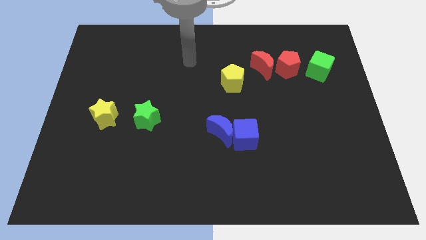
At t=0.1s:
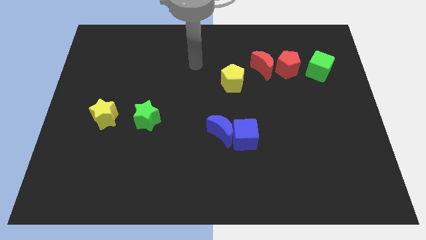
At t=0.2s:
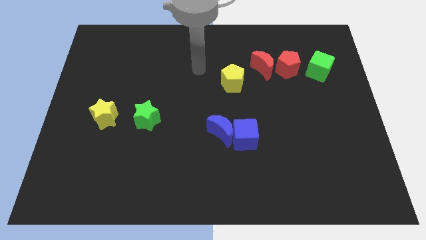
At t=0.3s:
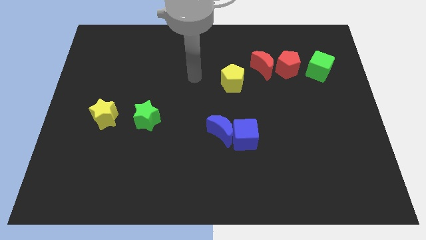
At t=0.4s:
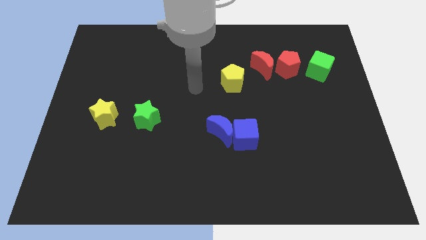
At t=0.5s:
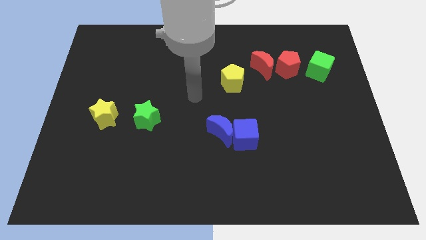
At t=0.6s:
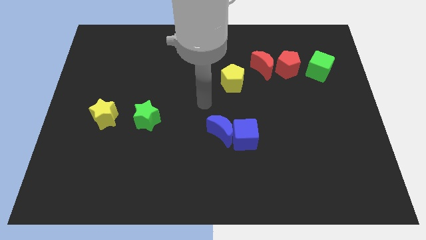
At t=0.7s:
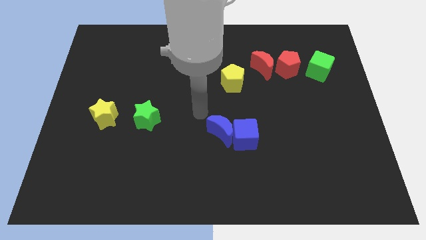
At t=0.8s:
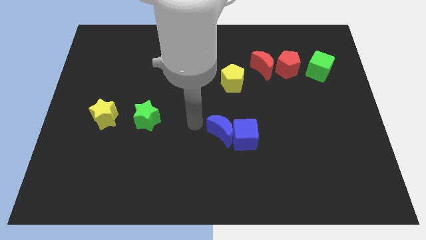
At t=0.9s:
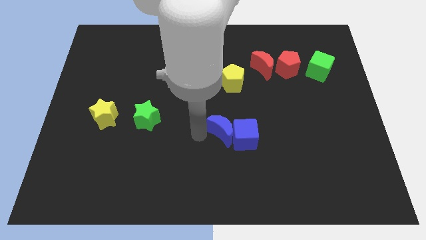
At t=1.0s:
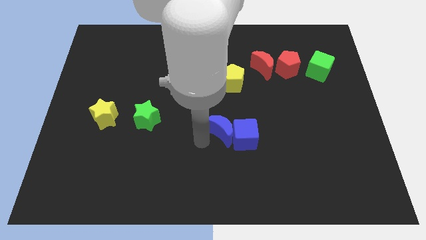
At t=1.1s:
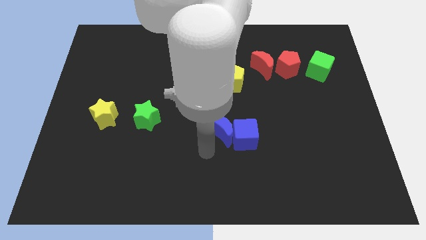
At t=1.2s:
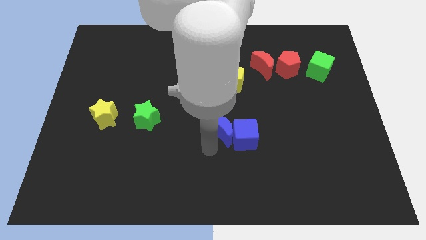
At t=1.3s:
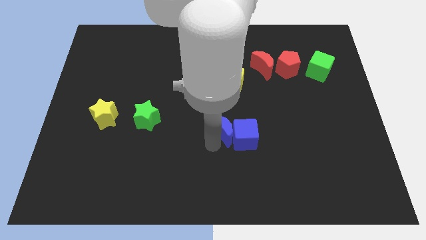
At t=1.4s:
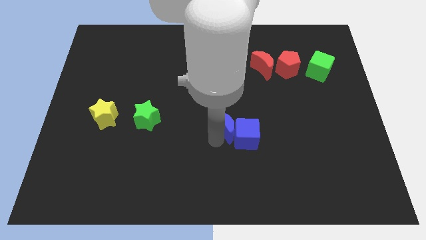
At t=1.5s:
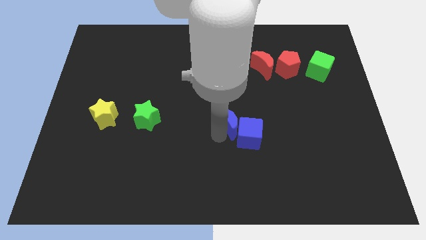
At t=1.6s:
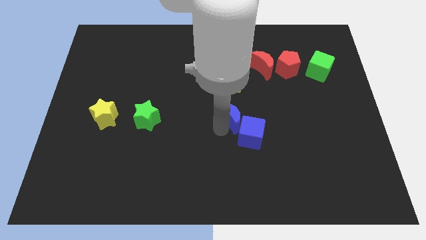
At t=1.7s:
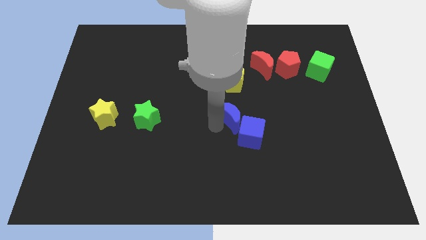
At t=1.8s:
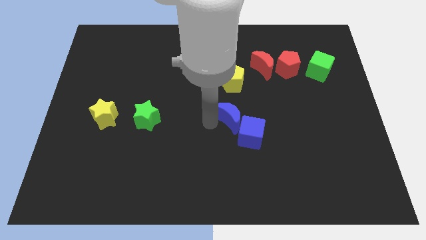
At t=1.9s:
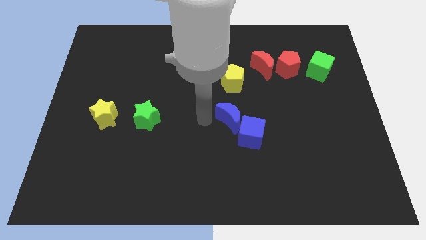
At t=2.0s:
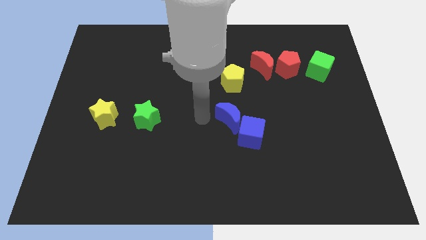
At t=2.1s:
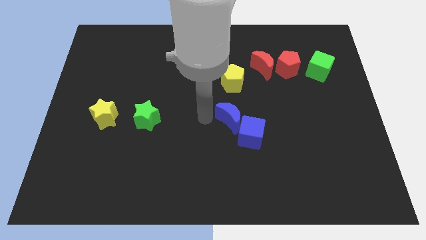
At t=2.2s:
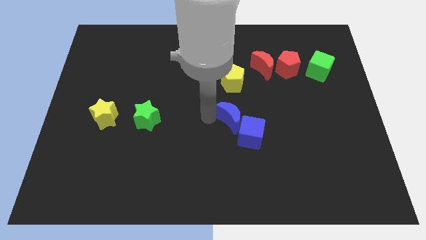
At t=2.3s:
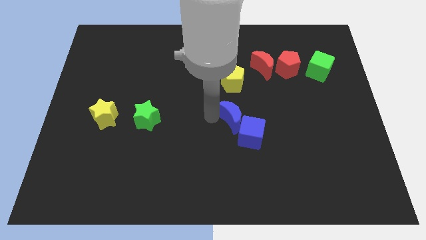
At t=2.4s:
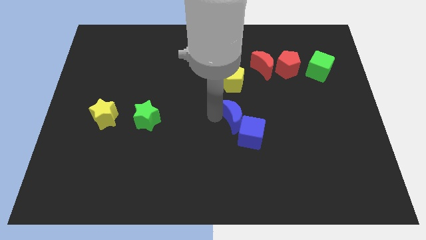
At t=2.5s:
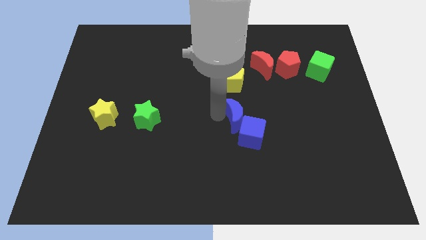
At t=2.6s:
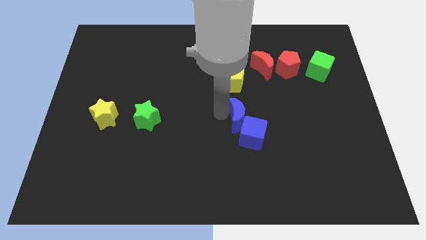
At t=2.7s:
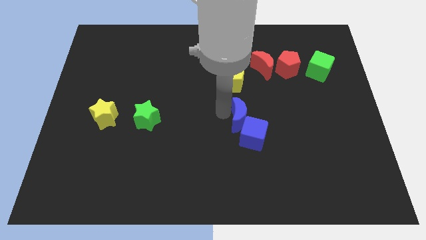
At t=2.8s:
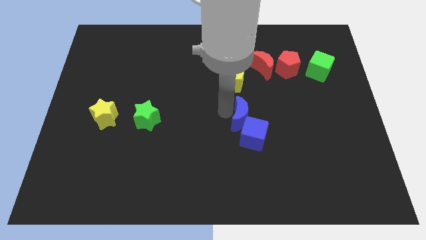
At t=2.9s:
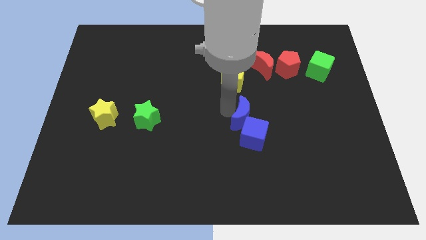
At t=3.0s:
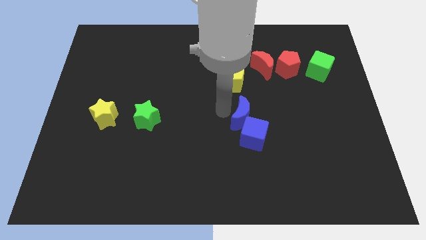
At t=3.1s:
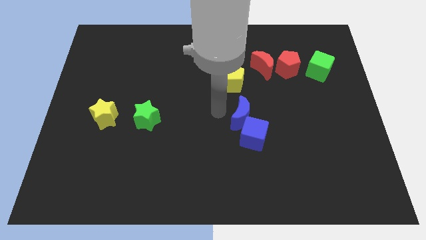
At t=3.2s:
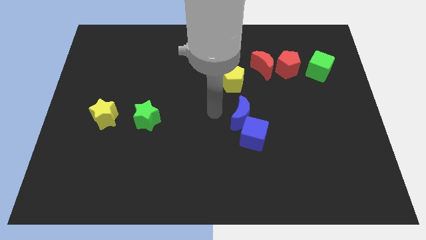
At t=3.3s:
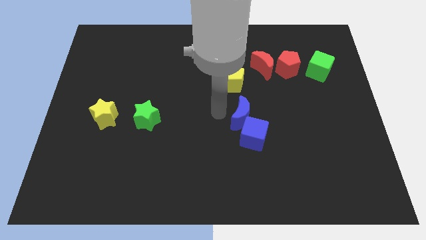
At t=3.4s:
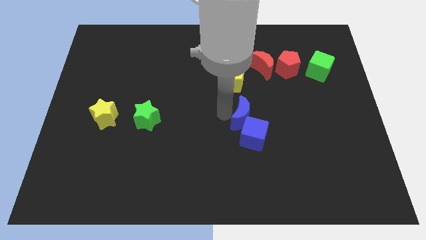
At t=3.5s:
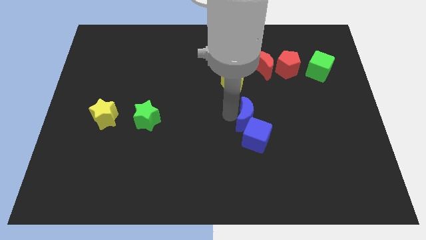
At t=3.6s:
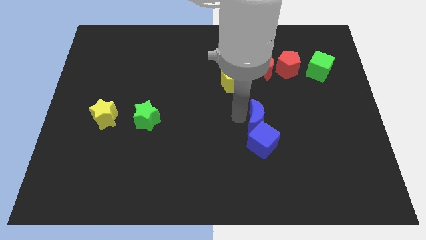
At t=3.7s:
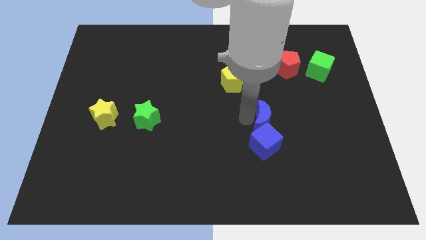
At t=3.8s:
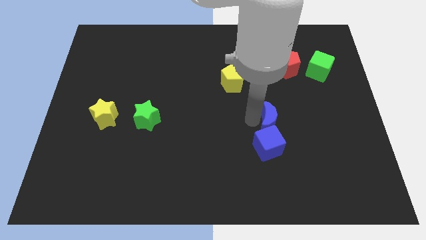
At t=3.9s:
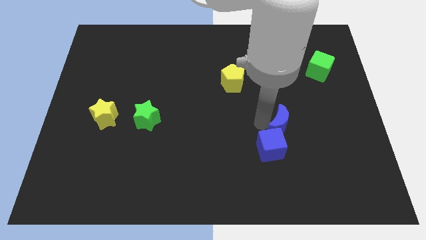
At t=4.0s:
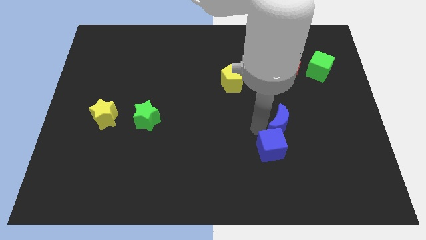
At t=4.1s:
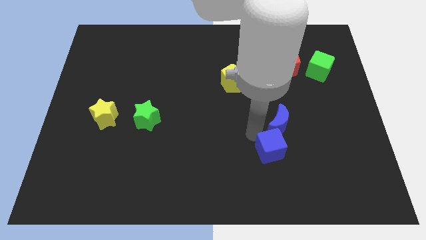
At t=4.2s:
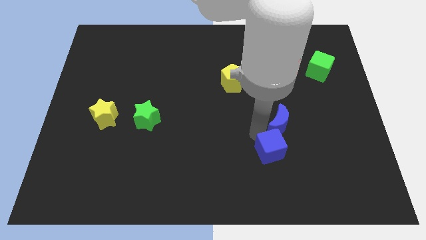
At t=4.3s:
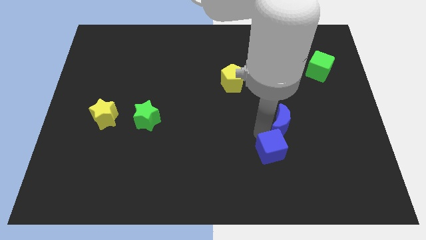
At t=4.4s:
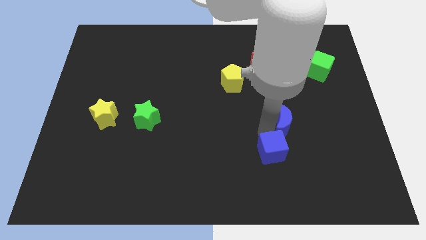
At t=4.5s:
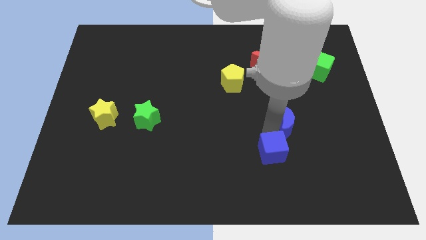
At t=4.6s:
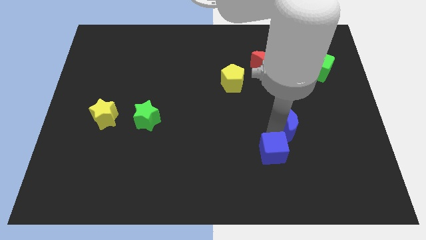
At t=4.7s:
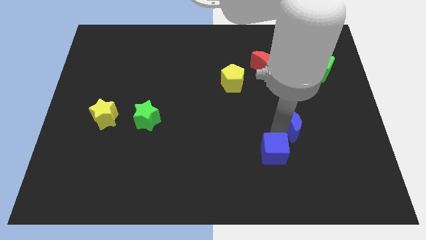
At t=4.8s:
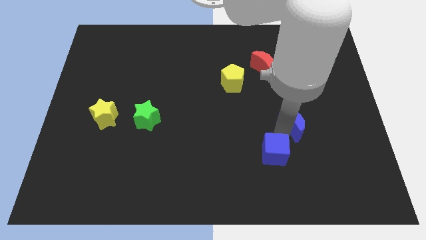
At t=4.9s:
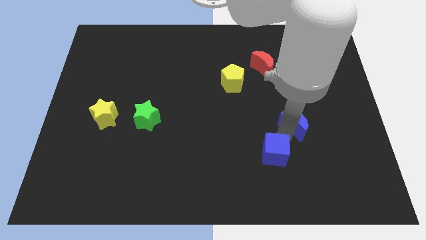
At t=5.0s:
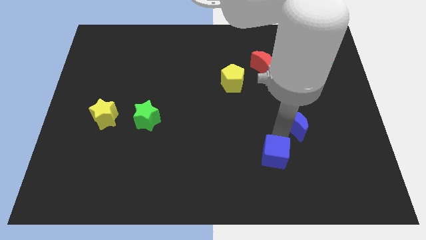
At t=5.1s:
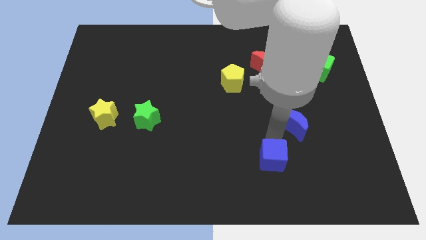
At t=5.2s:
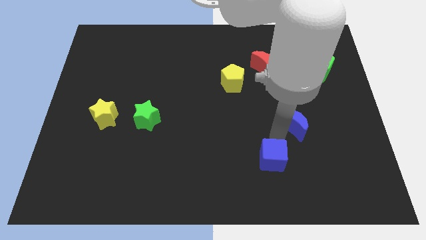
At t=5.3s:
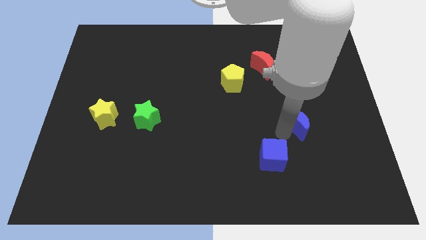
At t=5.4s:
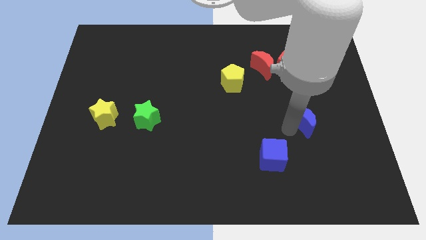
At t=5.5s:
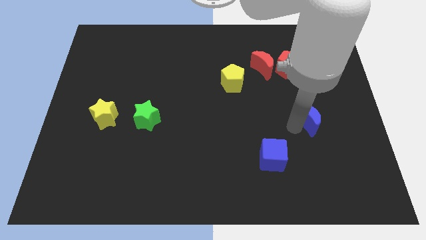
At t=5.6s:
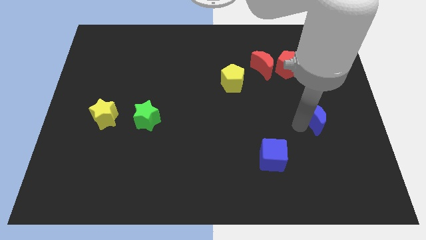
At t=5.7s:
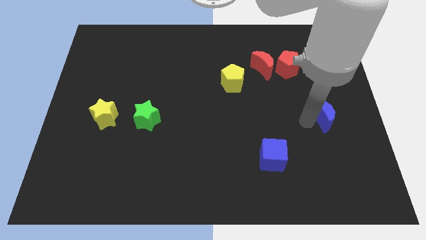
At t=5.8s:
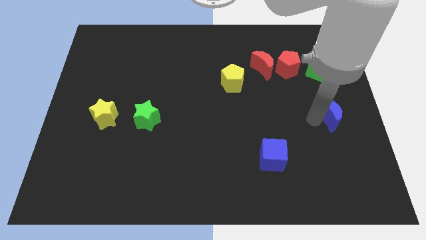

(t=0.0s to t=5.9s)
push the blue moon to the center right

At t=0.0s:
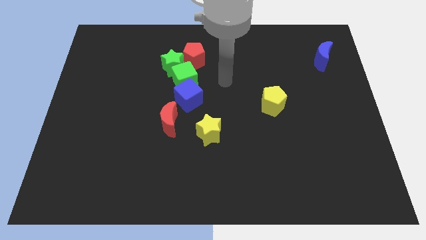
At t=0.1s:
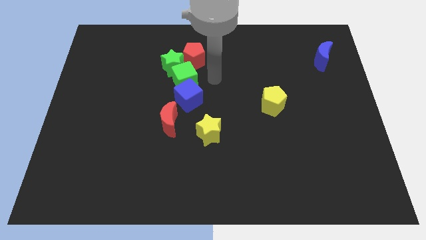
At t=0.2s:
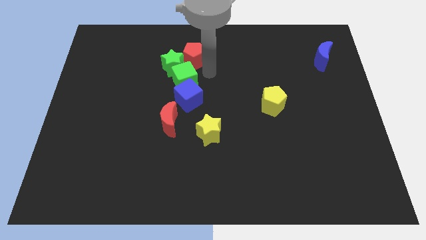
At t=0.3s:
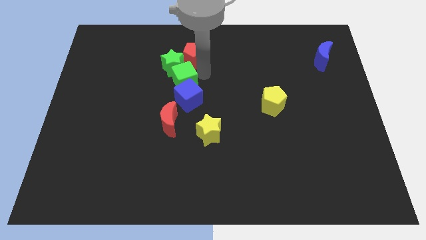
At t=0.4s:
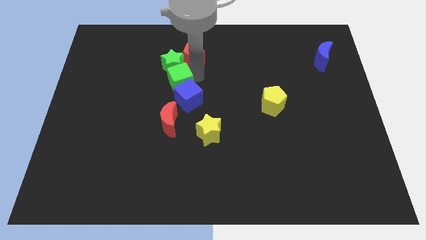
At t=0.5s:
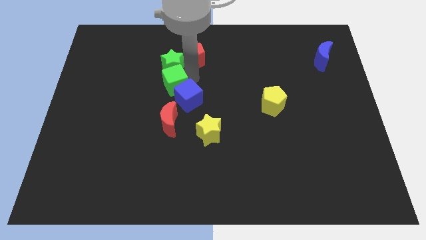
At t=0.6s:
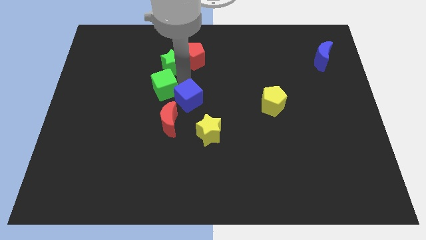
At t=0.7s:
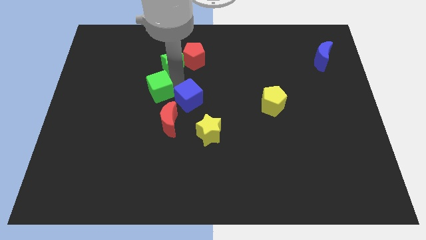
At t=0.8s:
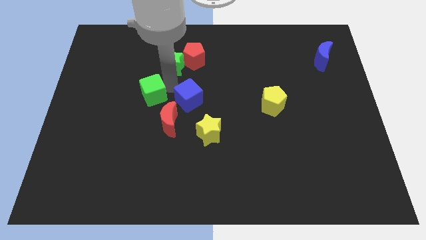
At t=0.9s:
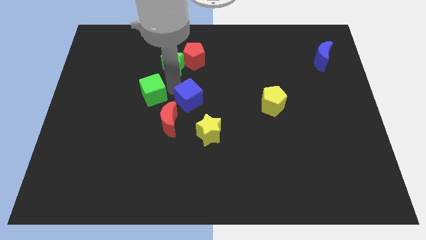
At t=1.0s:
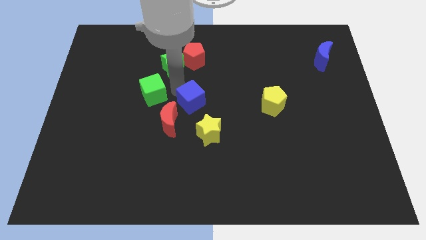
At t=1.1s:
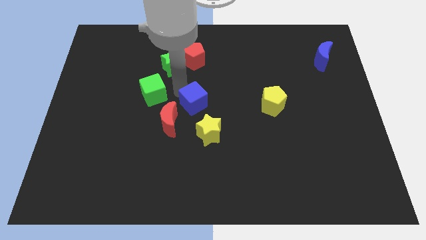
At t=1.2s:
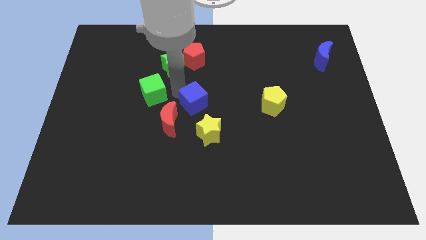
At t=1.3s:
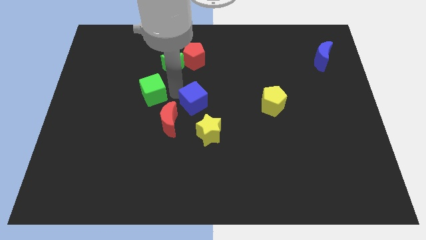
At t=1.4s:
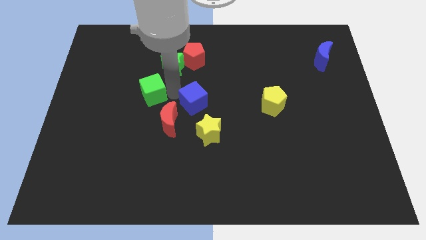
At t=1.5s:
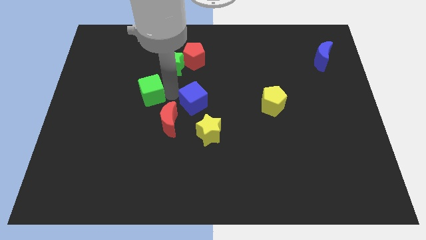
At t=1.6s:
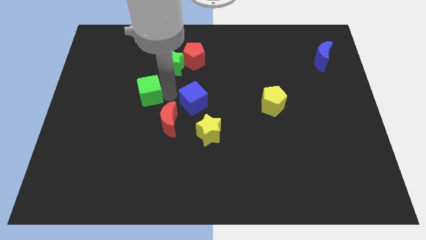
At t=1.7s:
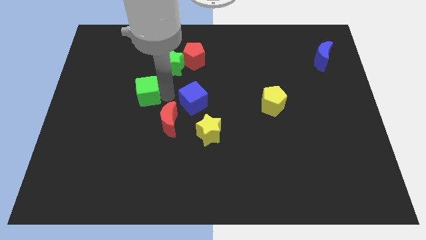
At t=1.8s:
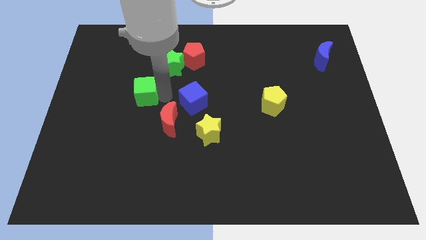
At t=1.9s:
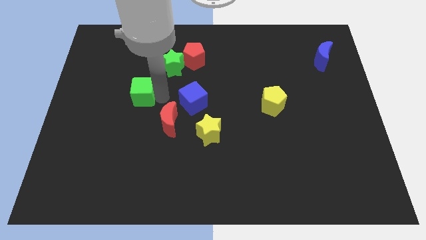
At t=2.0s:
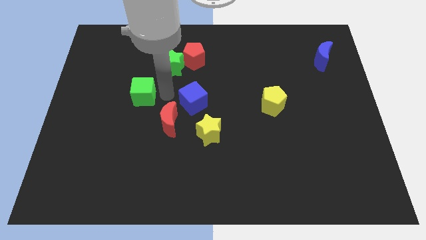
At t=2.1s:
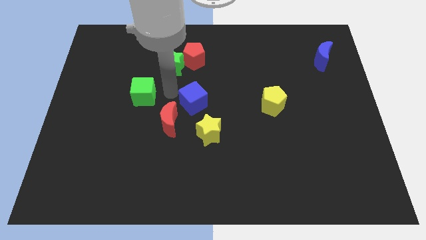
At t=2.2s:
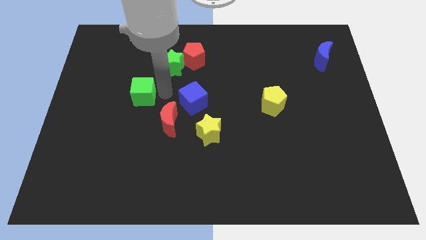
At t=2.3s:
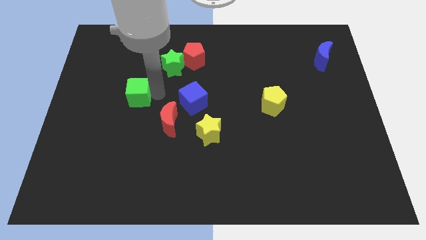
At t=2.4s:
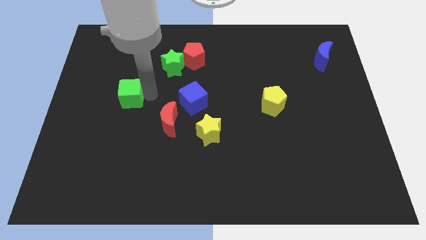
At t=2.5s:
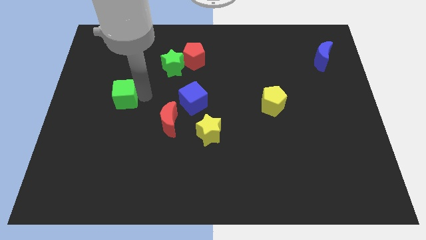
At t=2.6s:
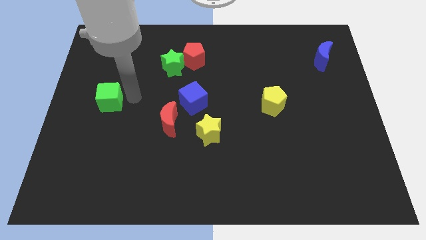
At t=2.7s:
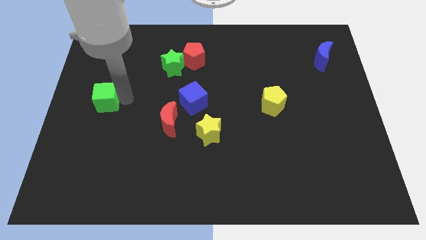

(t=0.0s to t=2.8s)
move the green cube to the left side
